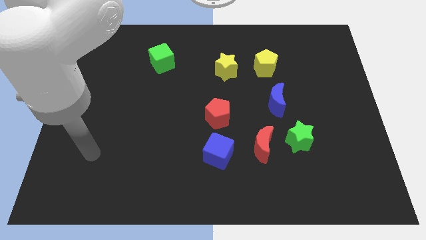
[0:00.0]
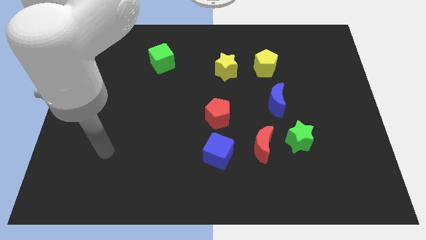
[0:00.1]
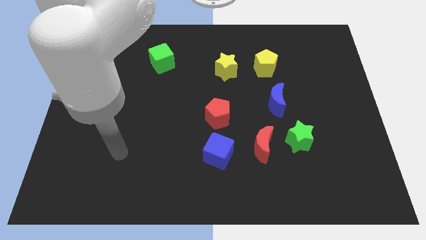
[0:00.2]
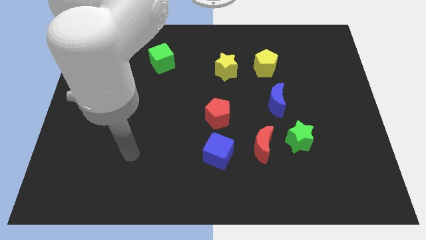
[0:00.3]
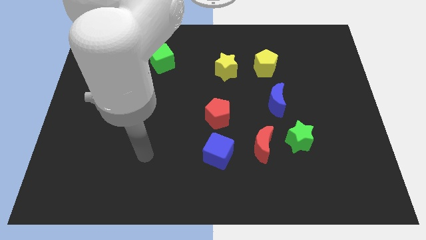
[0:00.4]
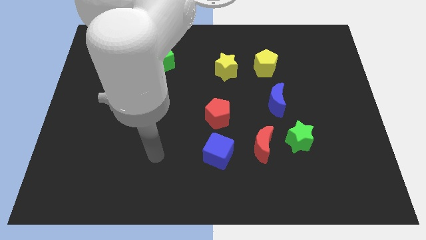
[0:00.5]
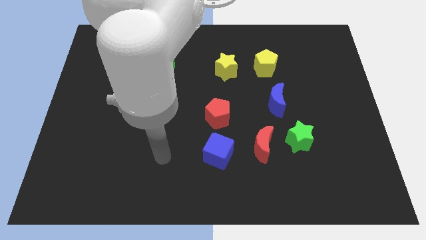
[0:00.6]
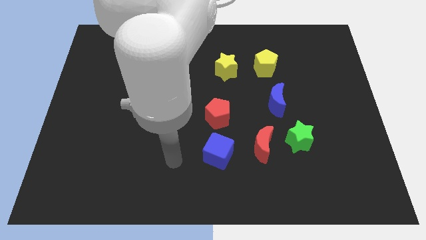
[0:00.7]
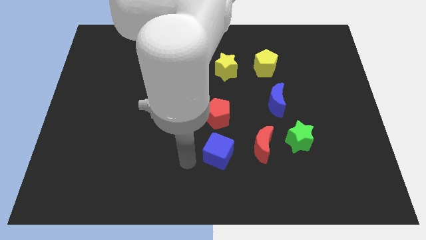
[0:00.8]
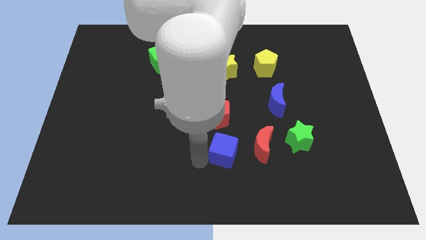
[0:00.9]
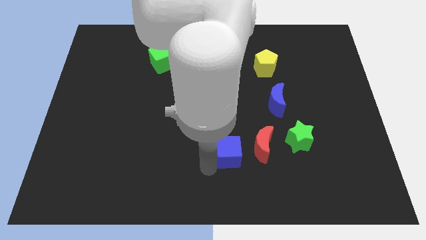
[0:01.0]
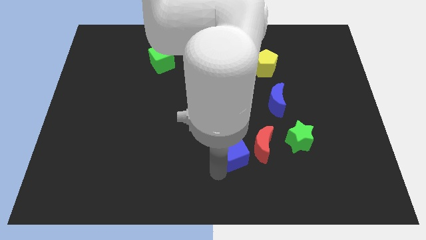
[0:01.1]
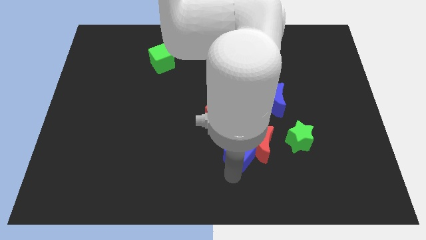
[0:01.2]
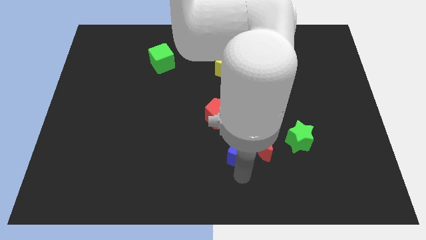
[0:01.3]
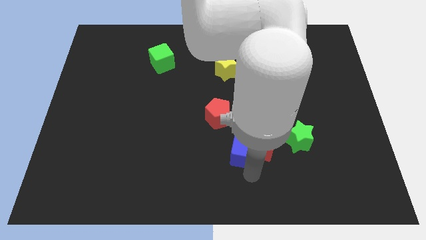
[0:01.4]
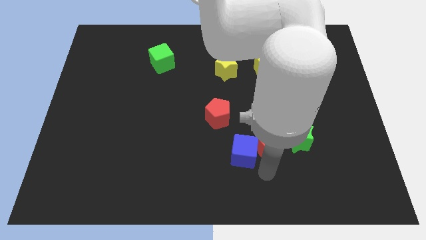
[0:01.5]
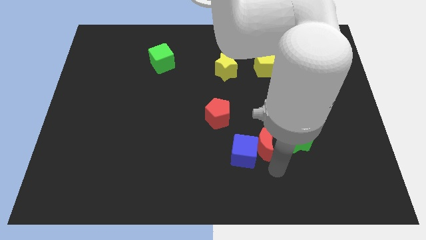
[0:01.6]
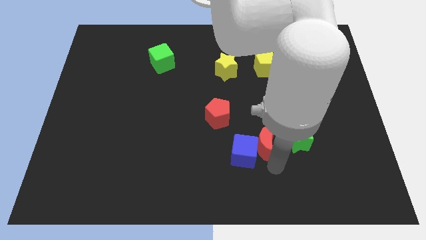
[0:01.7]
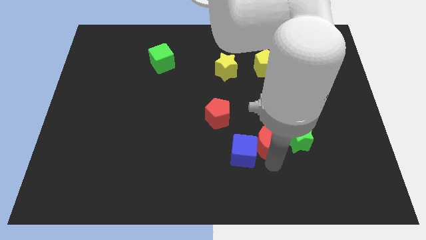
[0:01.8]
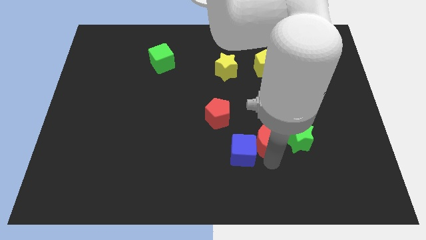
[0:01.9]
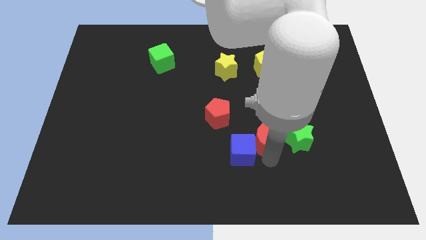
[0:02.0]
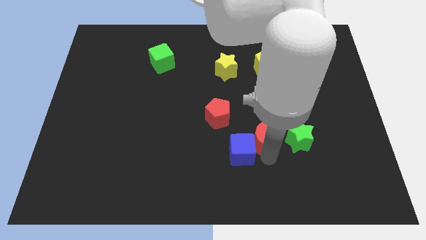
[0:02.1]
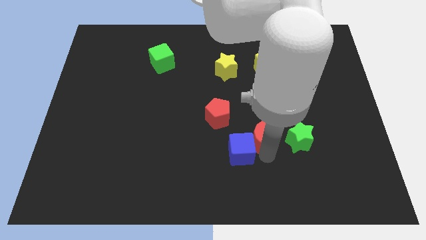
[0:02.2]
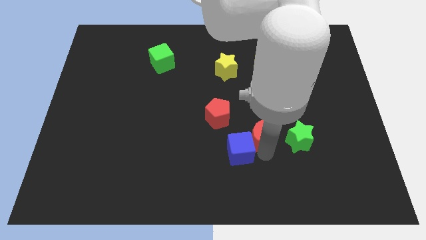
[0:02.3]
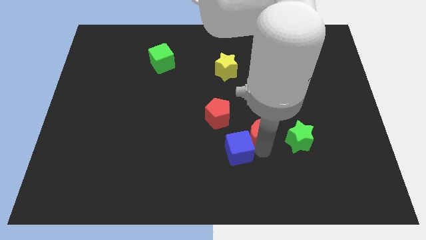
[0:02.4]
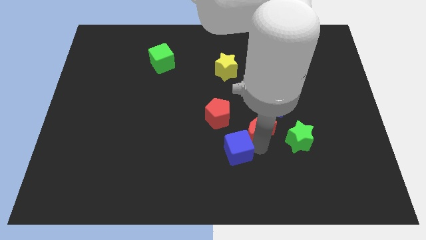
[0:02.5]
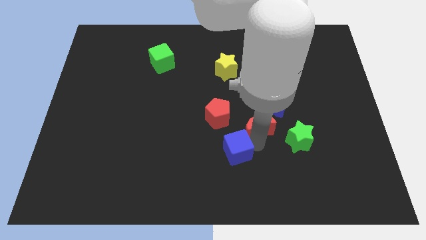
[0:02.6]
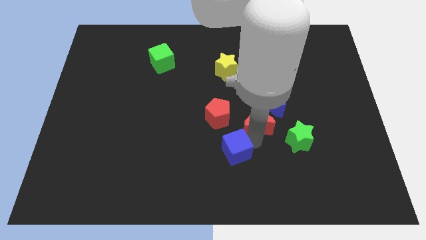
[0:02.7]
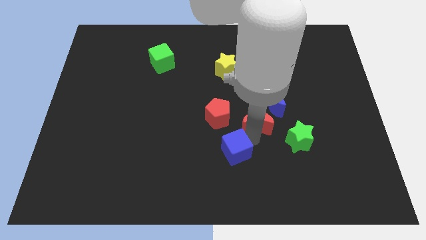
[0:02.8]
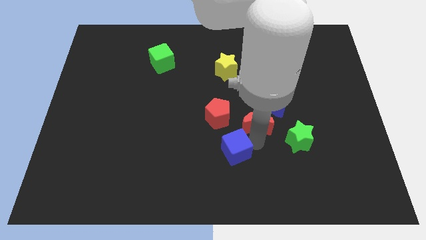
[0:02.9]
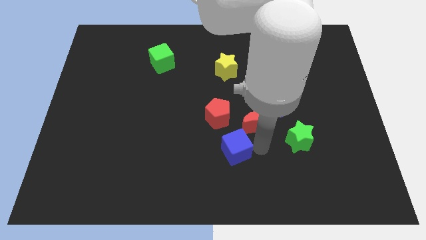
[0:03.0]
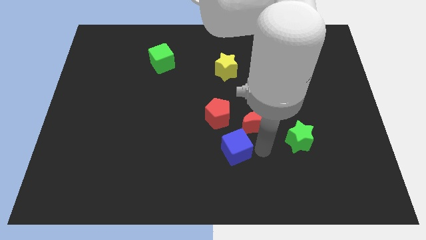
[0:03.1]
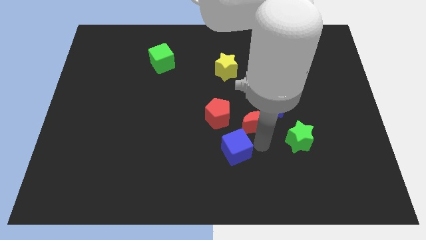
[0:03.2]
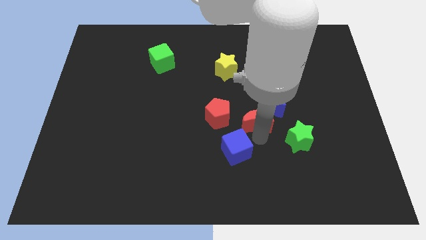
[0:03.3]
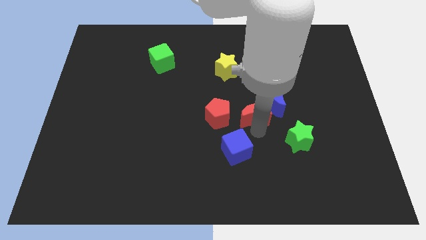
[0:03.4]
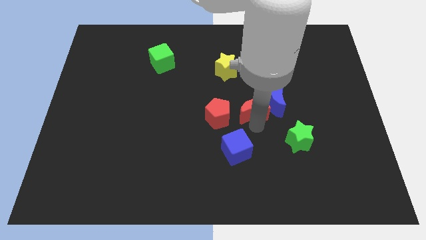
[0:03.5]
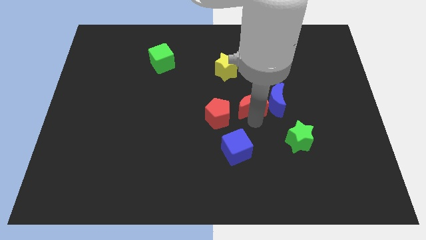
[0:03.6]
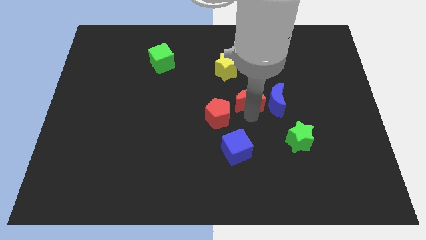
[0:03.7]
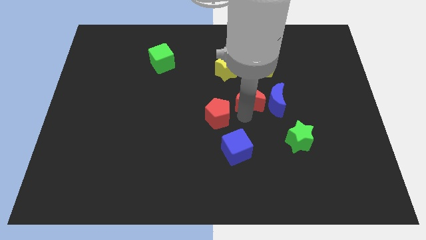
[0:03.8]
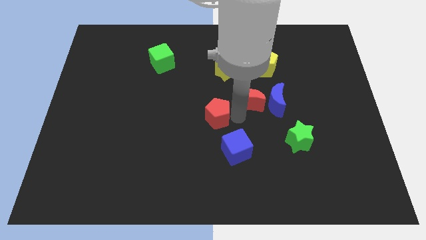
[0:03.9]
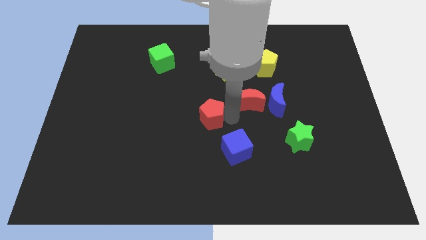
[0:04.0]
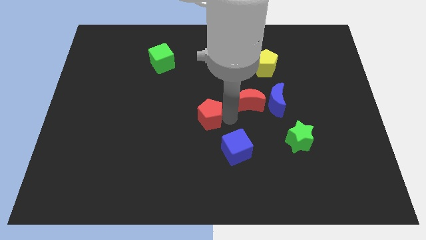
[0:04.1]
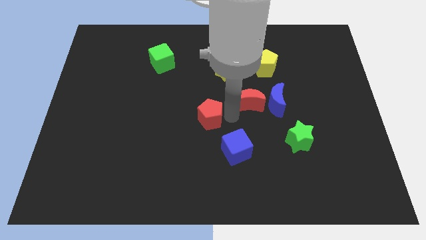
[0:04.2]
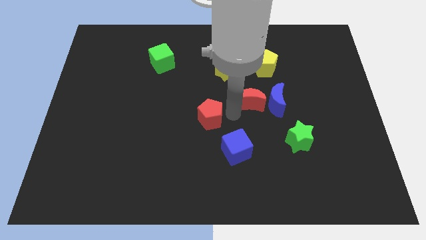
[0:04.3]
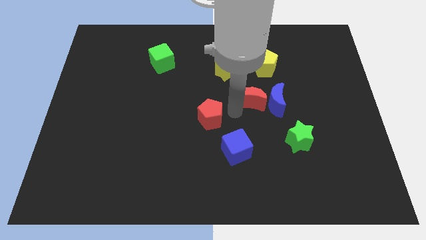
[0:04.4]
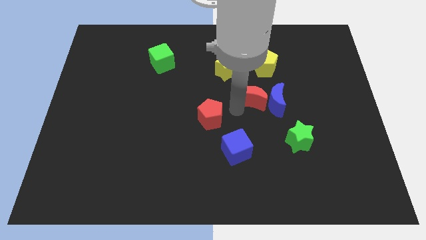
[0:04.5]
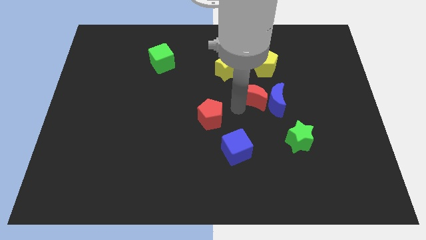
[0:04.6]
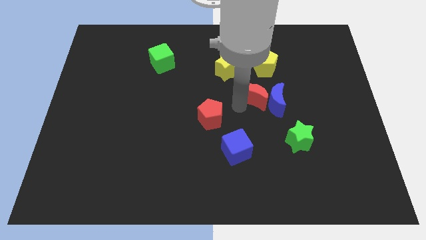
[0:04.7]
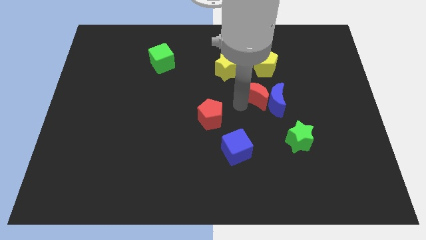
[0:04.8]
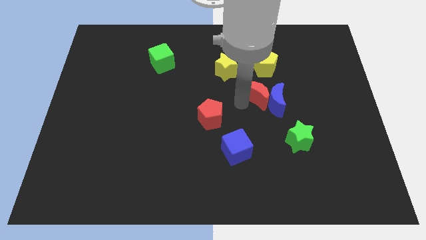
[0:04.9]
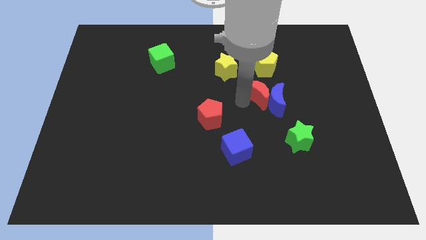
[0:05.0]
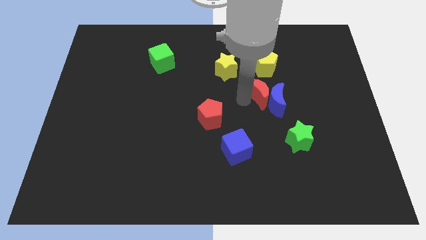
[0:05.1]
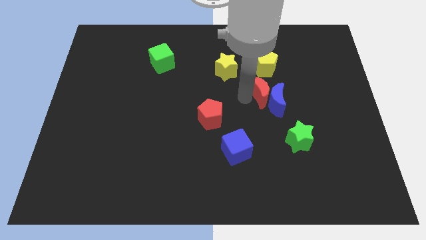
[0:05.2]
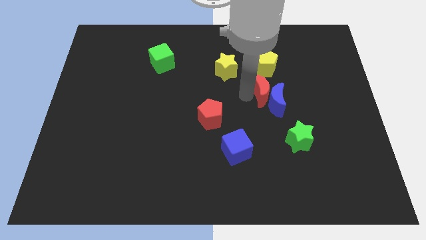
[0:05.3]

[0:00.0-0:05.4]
slightly move the red moon diagonally upwards and right

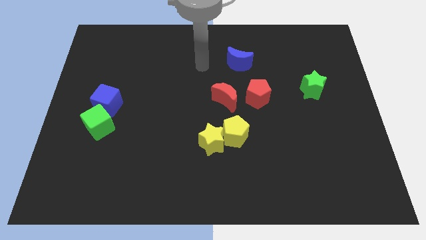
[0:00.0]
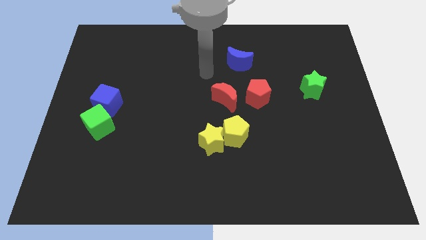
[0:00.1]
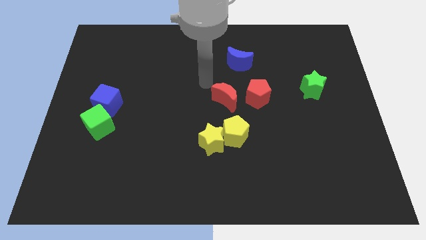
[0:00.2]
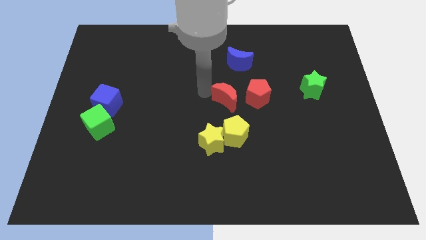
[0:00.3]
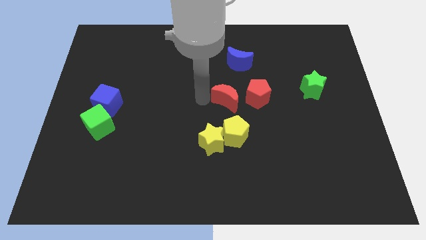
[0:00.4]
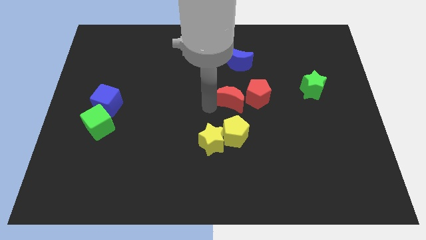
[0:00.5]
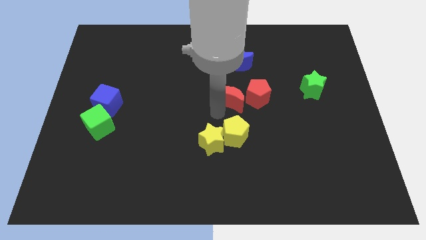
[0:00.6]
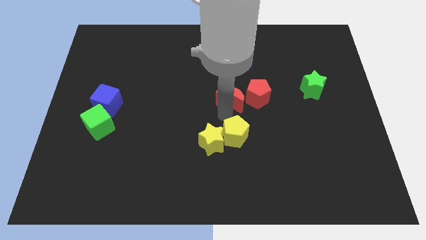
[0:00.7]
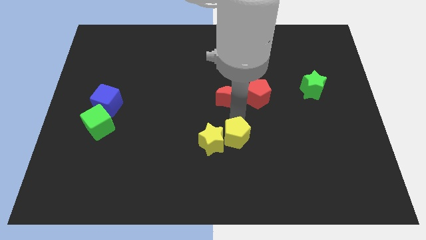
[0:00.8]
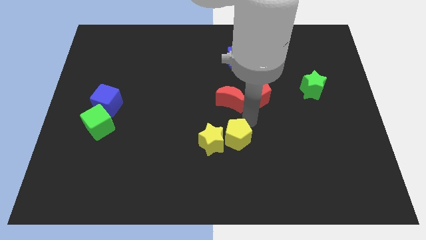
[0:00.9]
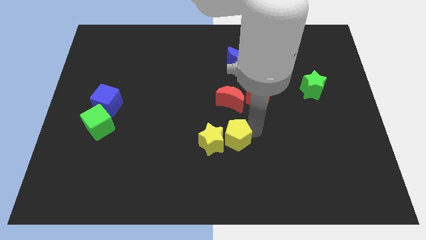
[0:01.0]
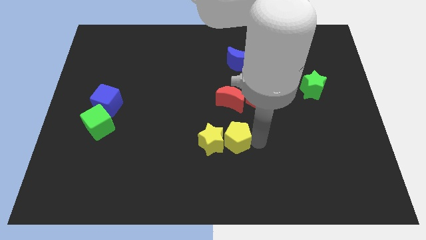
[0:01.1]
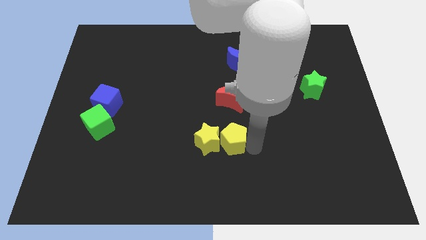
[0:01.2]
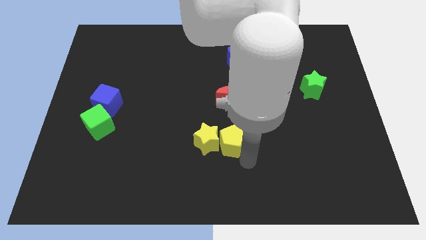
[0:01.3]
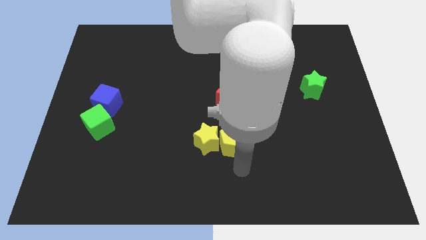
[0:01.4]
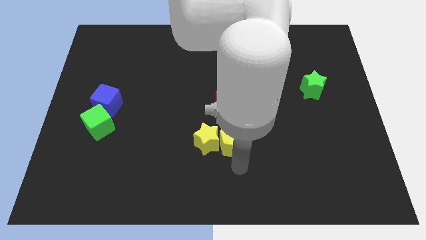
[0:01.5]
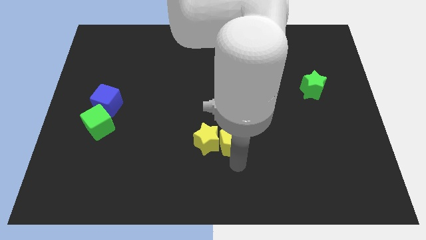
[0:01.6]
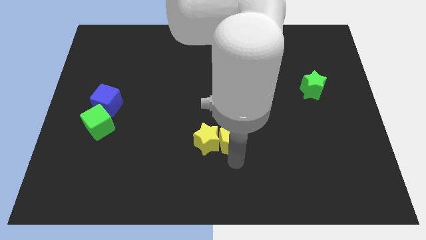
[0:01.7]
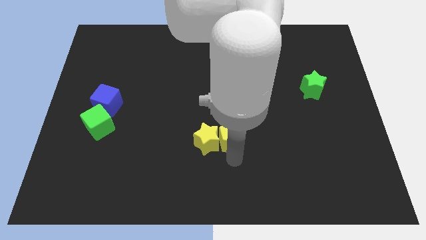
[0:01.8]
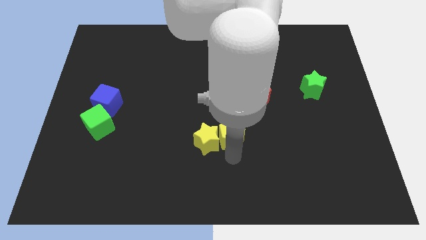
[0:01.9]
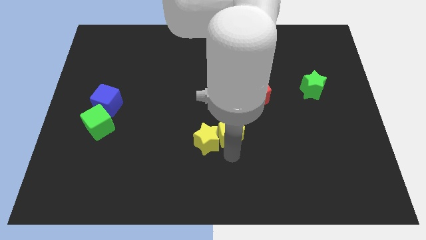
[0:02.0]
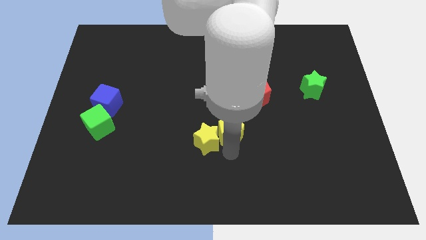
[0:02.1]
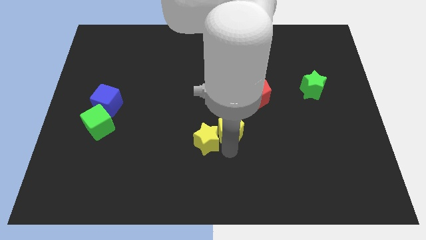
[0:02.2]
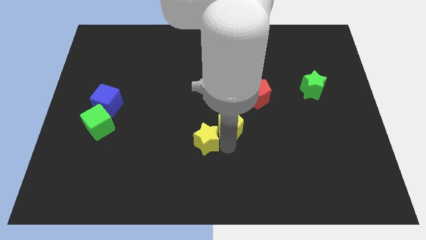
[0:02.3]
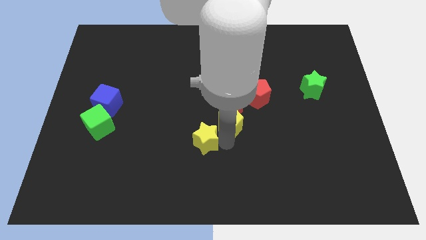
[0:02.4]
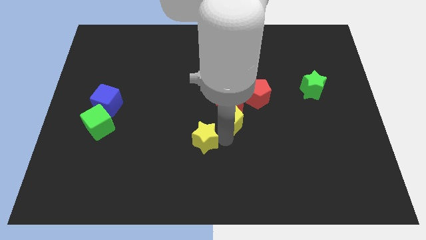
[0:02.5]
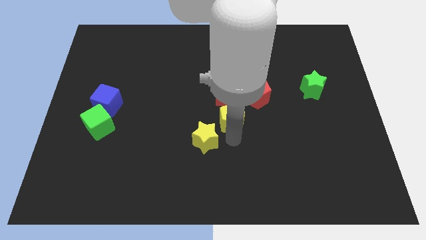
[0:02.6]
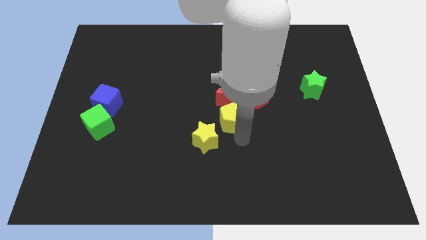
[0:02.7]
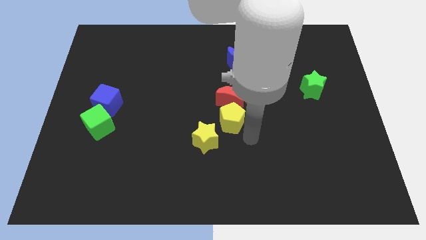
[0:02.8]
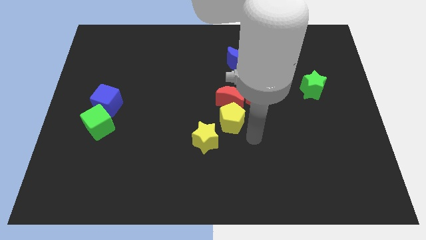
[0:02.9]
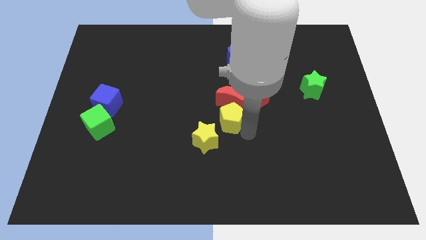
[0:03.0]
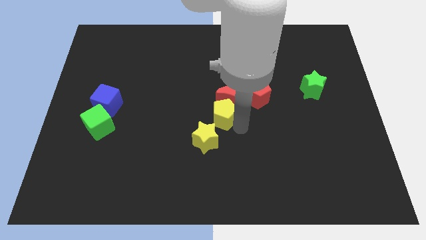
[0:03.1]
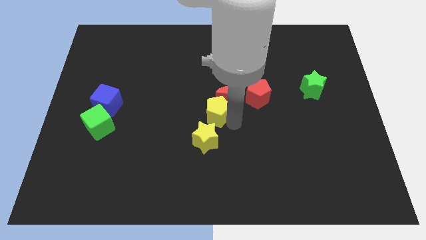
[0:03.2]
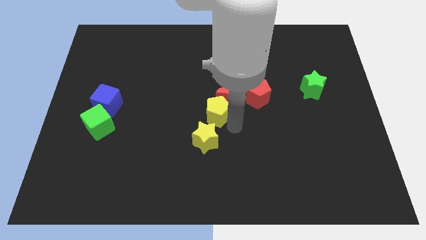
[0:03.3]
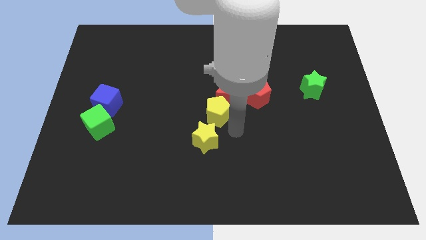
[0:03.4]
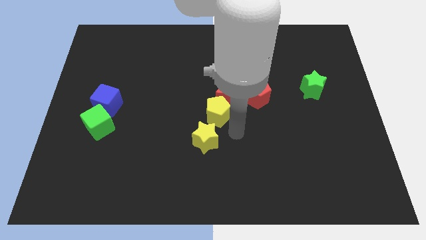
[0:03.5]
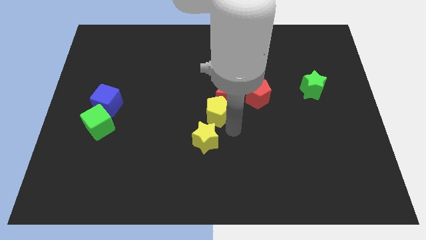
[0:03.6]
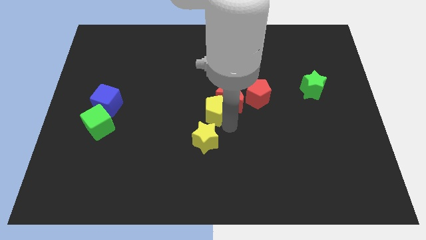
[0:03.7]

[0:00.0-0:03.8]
move the yellow pentagon upwards and to the left diagonally slightly
